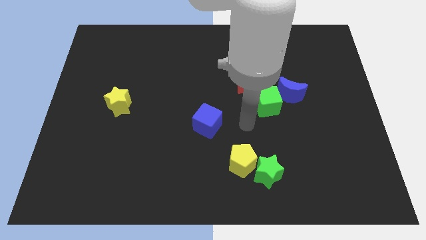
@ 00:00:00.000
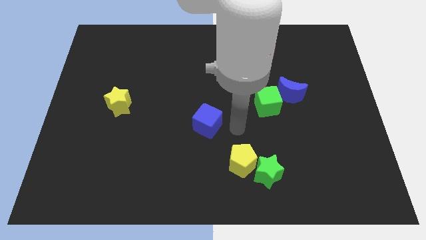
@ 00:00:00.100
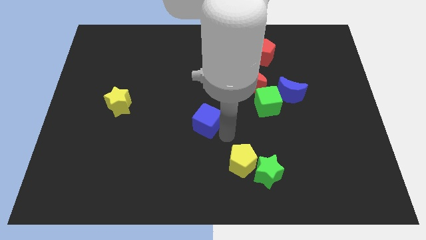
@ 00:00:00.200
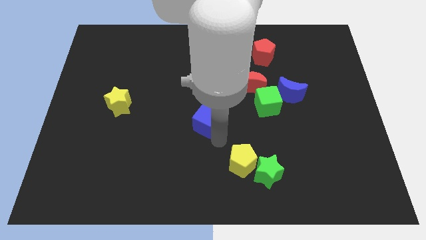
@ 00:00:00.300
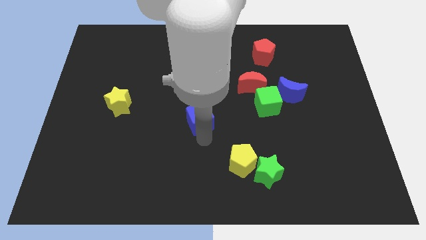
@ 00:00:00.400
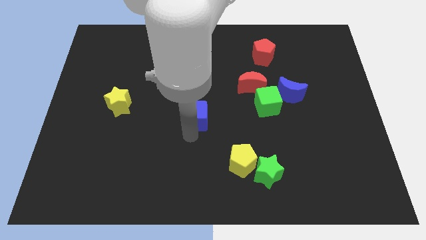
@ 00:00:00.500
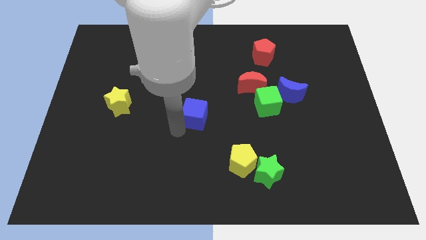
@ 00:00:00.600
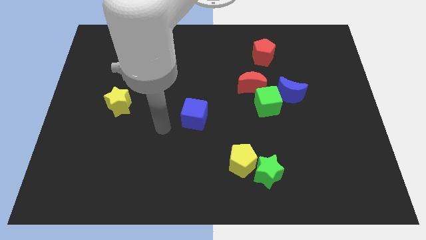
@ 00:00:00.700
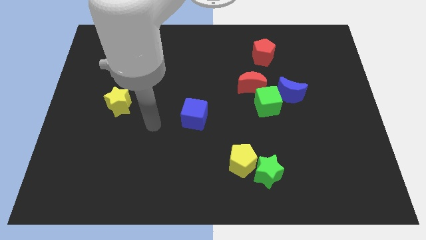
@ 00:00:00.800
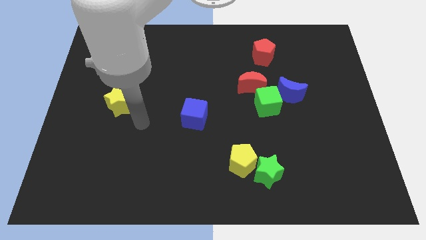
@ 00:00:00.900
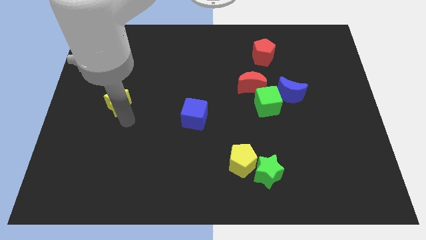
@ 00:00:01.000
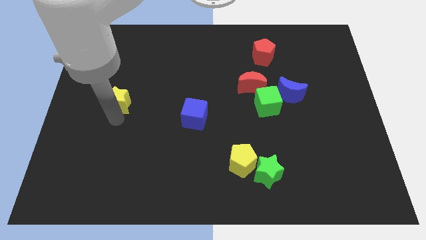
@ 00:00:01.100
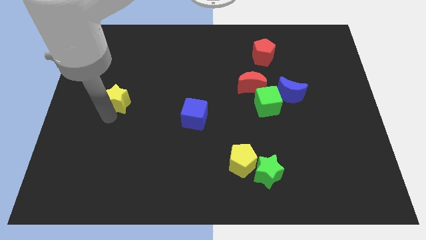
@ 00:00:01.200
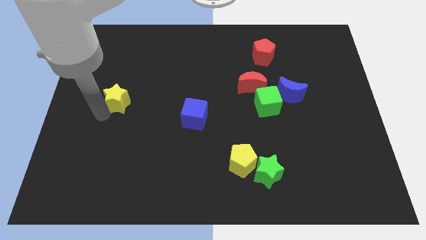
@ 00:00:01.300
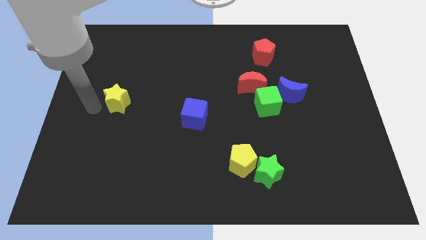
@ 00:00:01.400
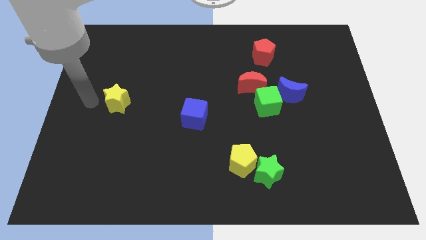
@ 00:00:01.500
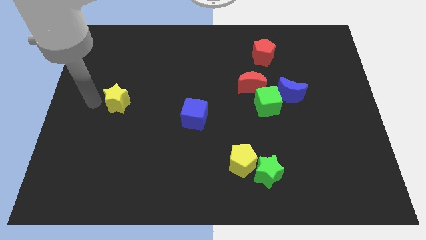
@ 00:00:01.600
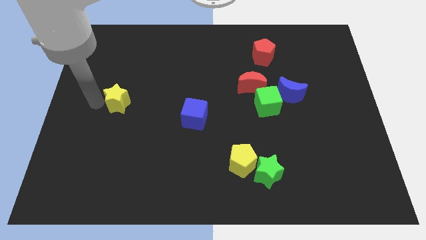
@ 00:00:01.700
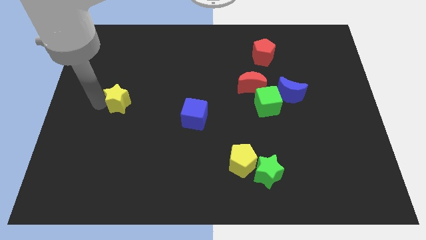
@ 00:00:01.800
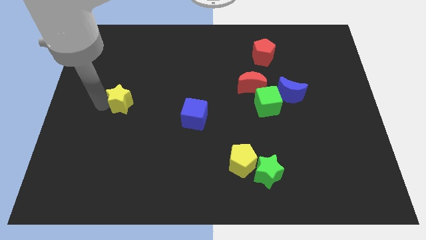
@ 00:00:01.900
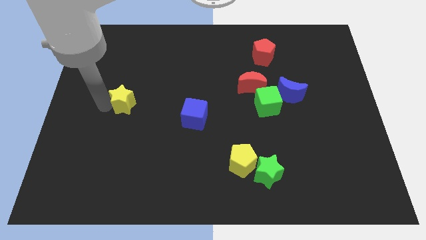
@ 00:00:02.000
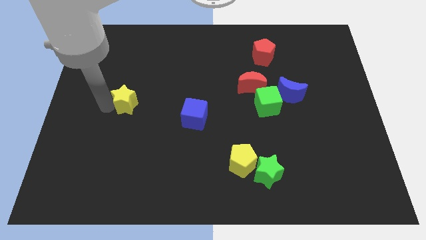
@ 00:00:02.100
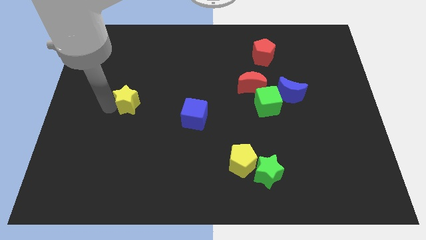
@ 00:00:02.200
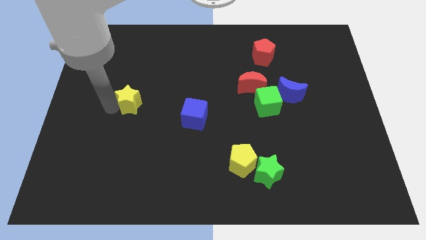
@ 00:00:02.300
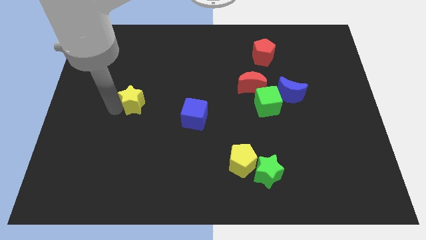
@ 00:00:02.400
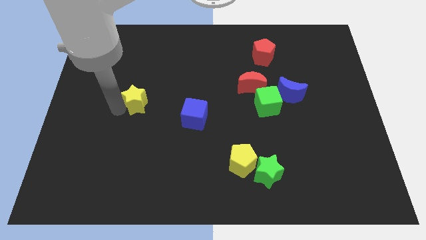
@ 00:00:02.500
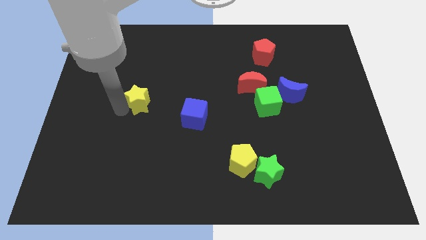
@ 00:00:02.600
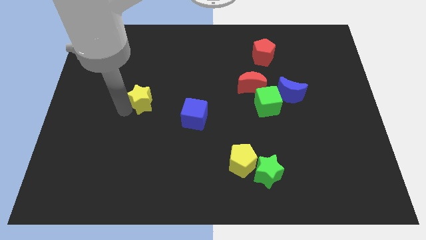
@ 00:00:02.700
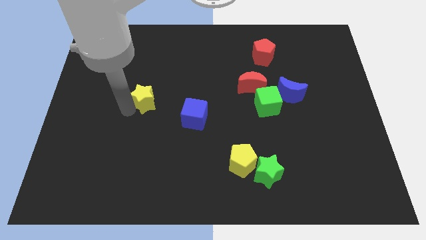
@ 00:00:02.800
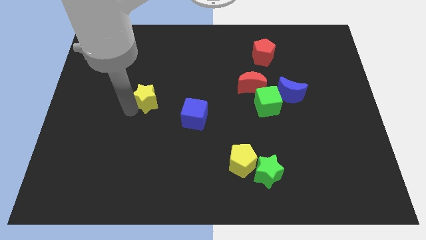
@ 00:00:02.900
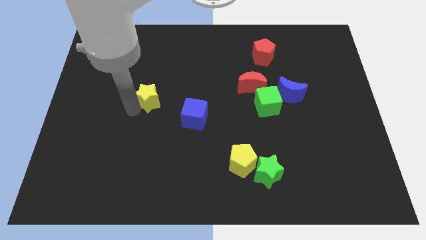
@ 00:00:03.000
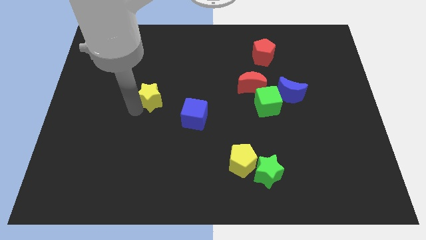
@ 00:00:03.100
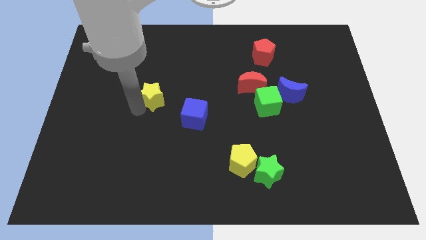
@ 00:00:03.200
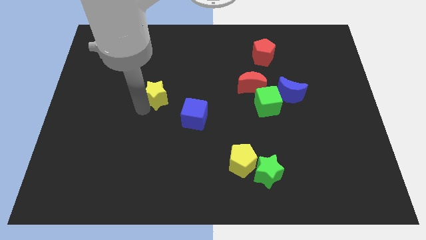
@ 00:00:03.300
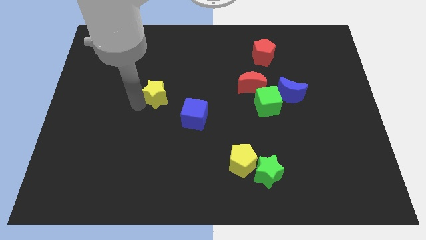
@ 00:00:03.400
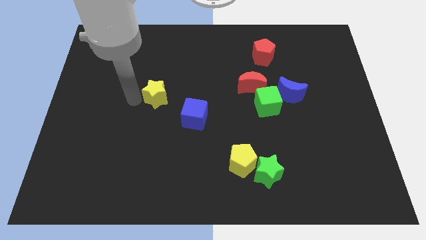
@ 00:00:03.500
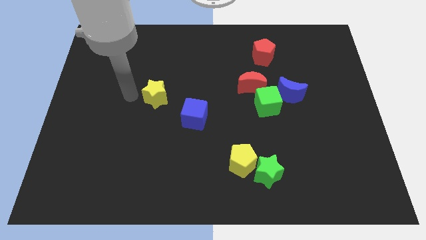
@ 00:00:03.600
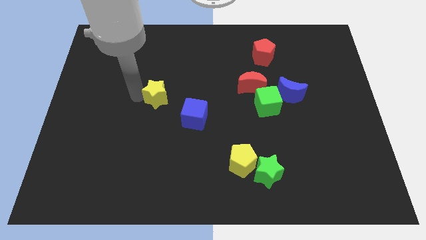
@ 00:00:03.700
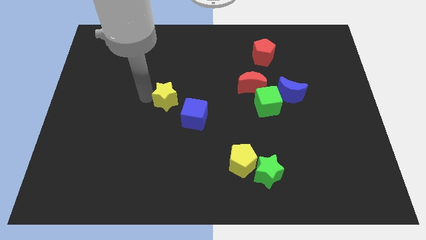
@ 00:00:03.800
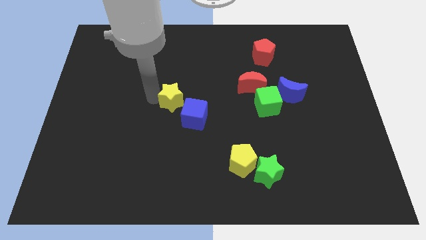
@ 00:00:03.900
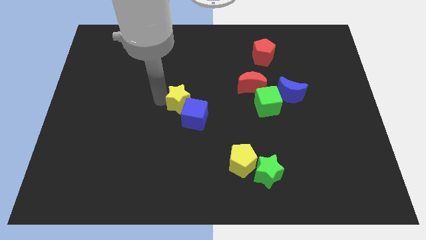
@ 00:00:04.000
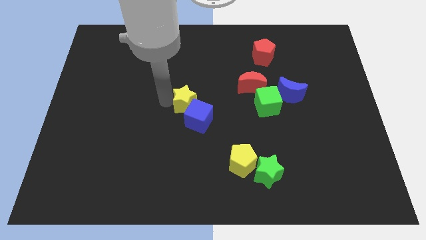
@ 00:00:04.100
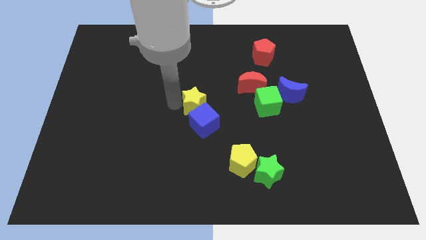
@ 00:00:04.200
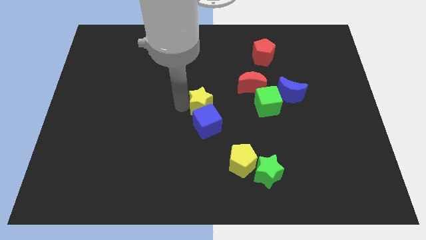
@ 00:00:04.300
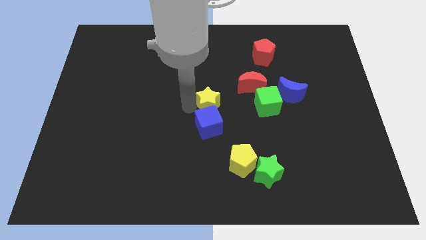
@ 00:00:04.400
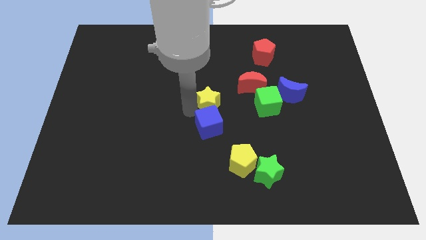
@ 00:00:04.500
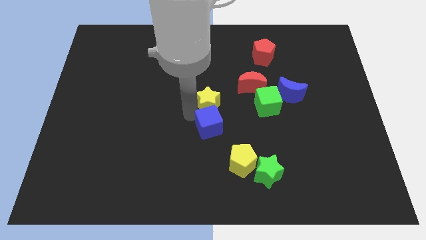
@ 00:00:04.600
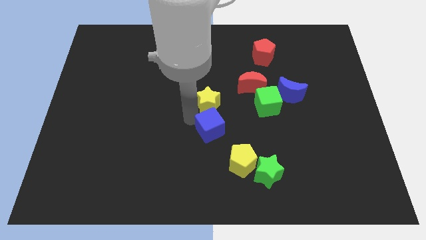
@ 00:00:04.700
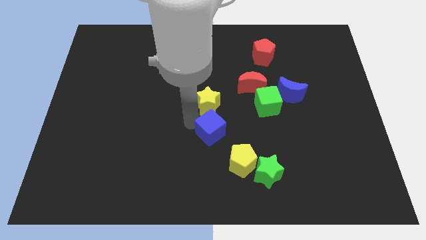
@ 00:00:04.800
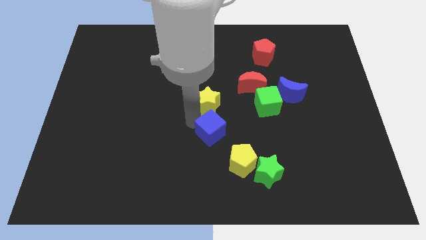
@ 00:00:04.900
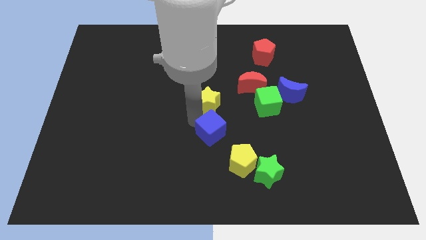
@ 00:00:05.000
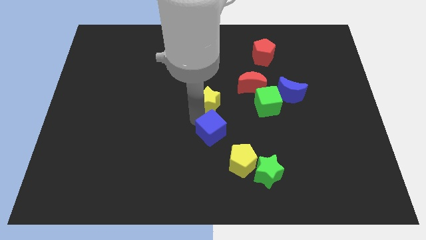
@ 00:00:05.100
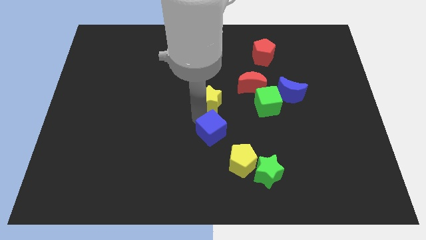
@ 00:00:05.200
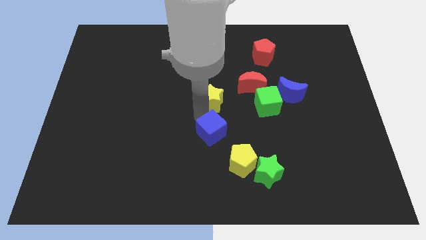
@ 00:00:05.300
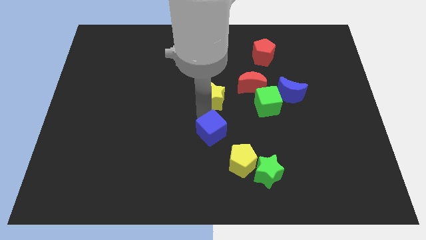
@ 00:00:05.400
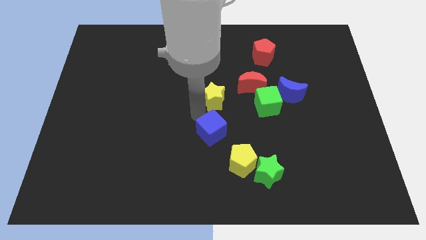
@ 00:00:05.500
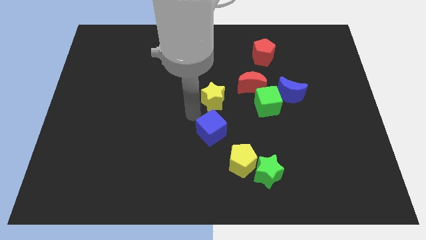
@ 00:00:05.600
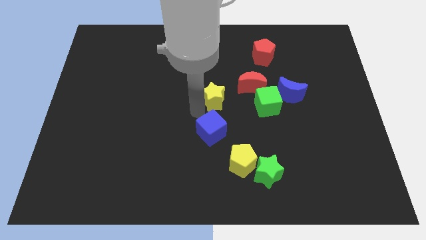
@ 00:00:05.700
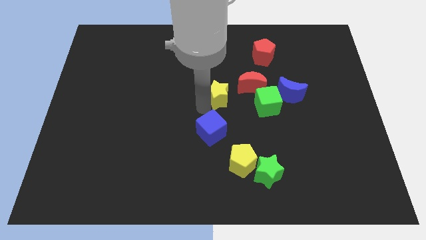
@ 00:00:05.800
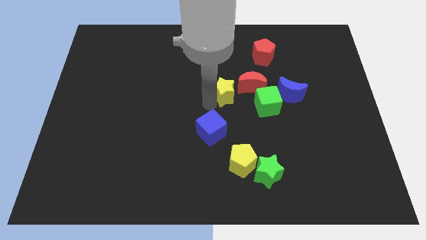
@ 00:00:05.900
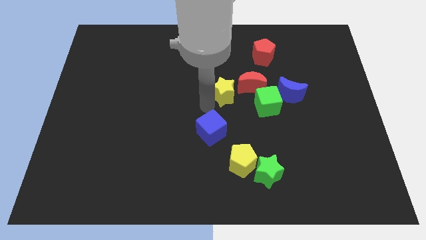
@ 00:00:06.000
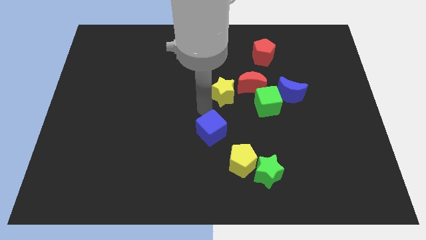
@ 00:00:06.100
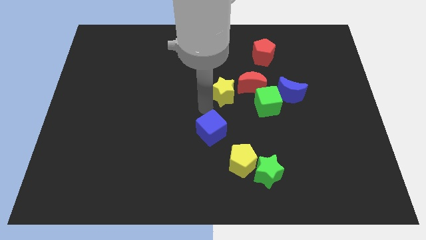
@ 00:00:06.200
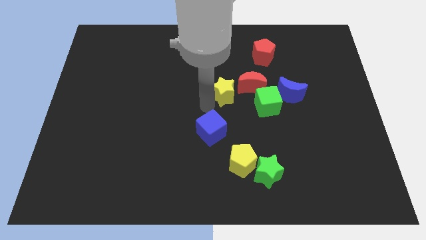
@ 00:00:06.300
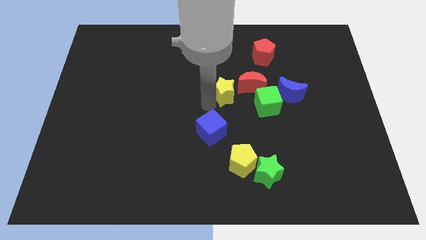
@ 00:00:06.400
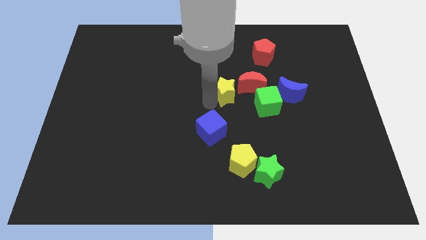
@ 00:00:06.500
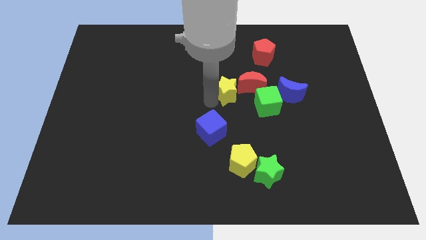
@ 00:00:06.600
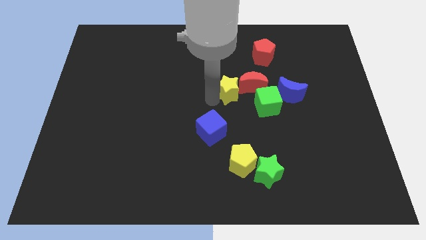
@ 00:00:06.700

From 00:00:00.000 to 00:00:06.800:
move the yellow star close to the red moon
